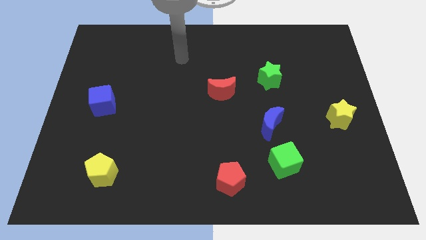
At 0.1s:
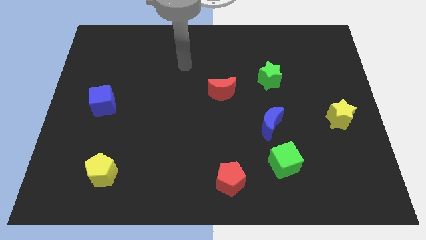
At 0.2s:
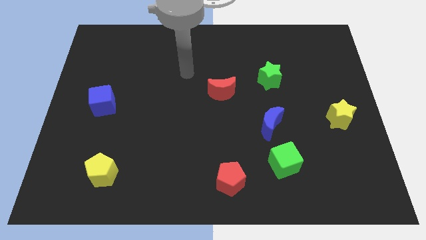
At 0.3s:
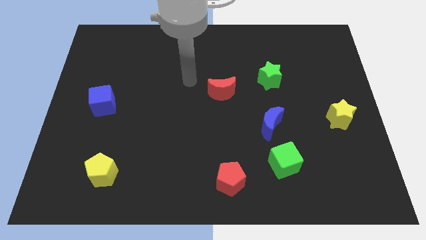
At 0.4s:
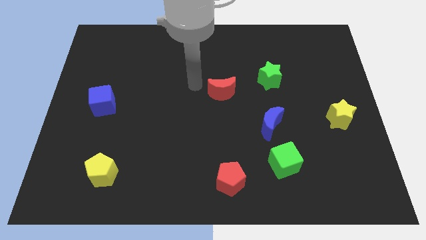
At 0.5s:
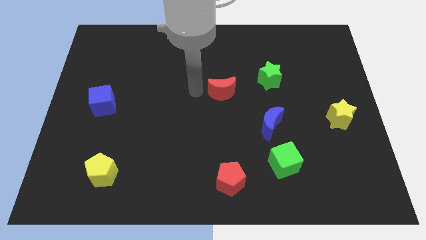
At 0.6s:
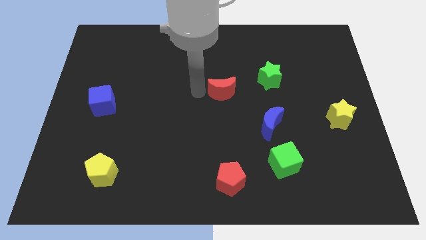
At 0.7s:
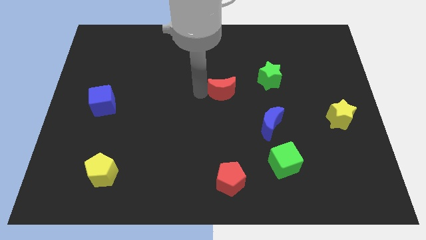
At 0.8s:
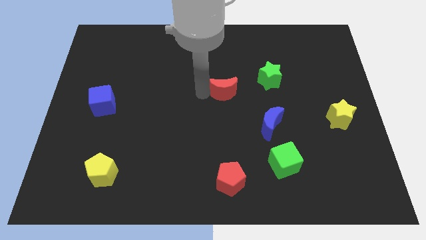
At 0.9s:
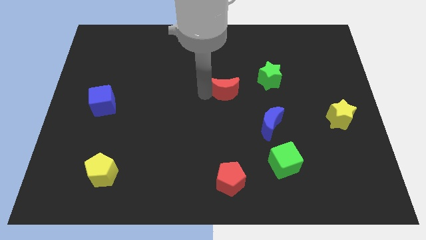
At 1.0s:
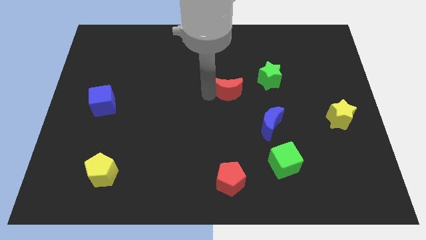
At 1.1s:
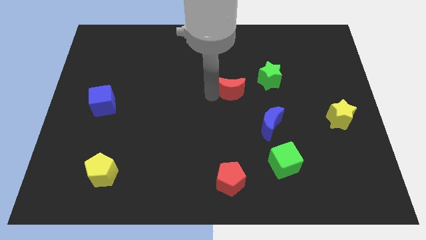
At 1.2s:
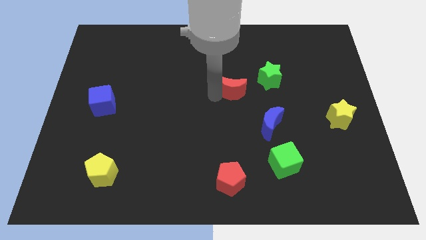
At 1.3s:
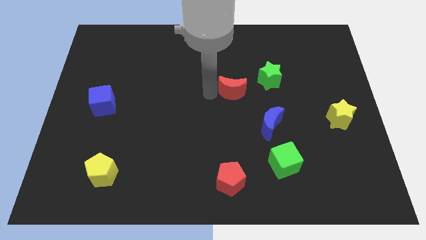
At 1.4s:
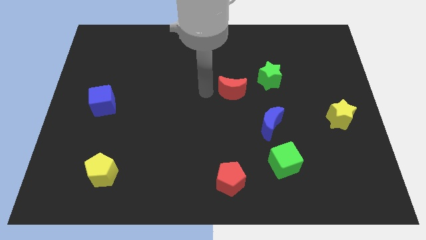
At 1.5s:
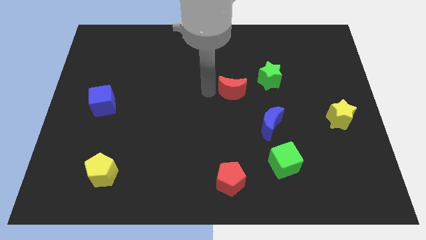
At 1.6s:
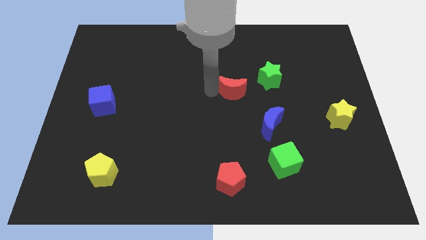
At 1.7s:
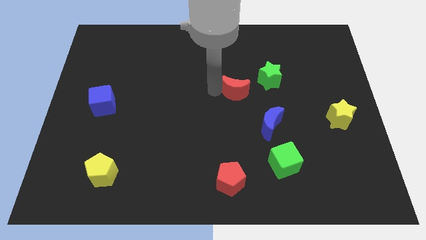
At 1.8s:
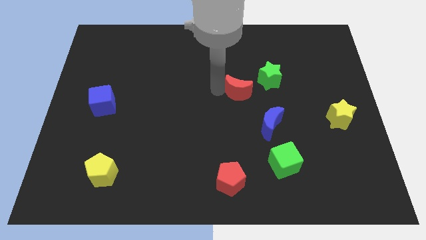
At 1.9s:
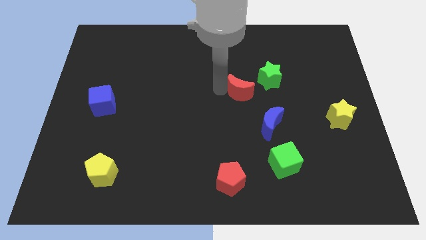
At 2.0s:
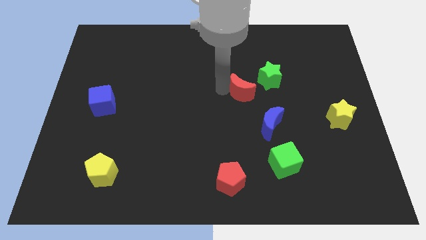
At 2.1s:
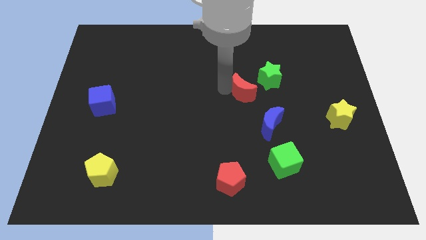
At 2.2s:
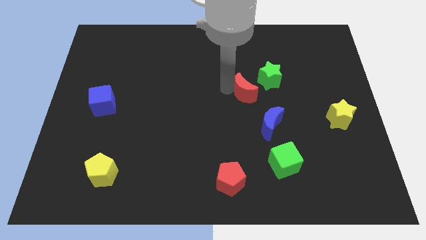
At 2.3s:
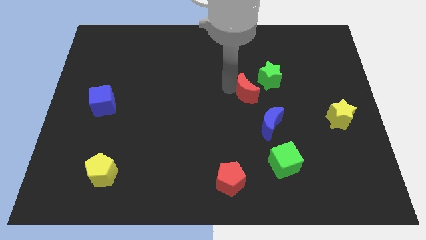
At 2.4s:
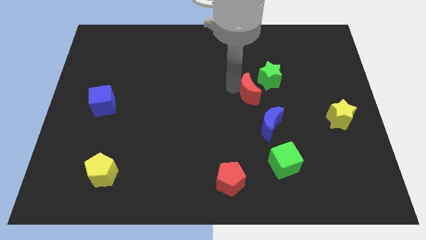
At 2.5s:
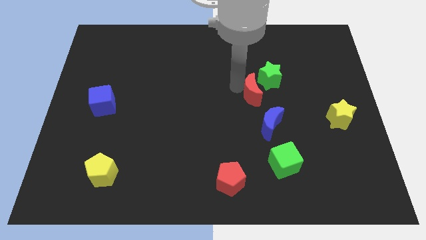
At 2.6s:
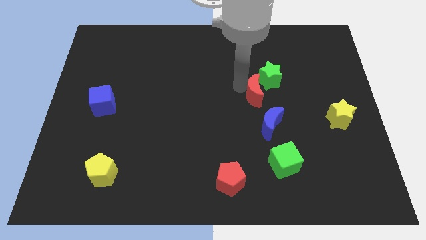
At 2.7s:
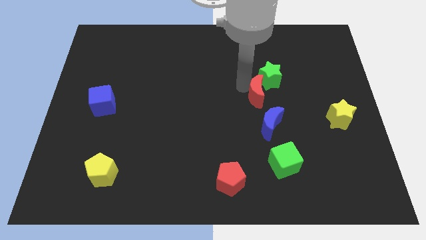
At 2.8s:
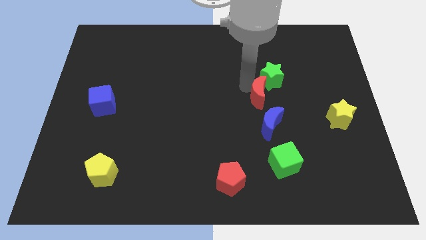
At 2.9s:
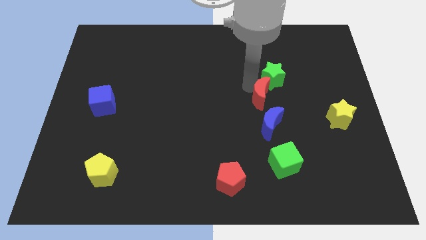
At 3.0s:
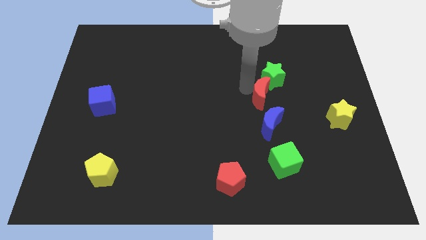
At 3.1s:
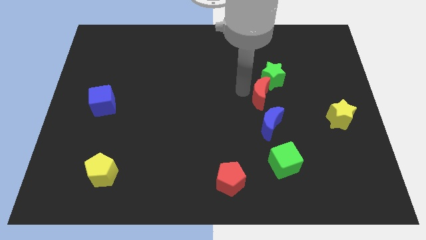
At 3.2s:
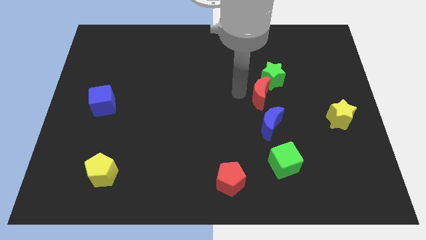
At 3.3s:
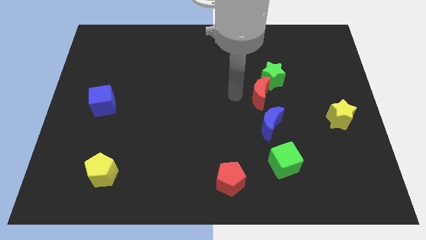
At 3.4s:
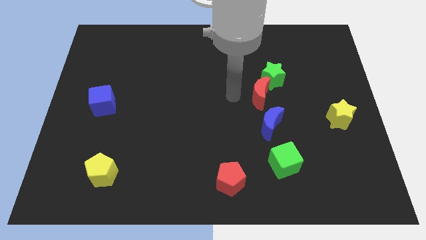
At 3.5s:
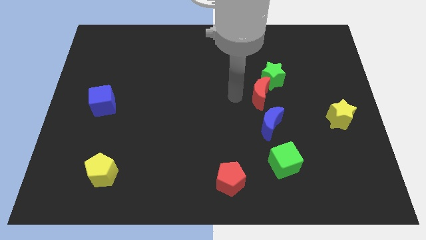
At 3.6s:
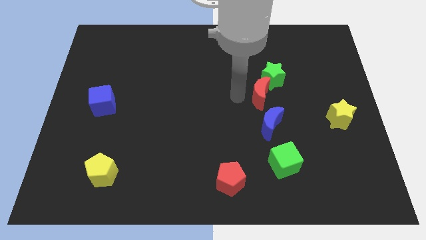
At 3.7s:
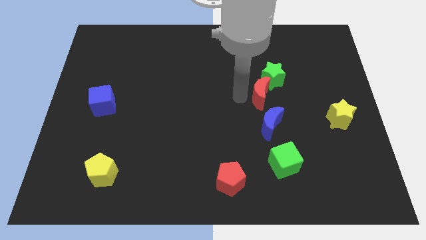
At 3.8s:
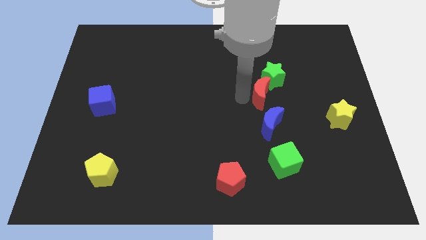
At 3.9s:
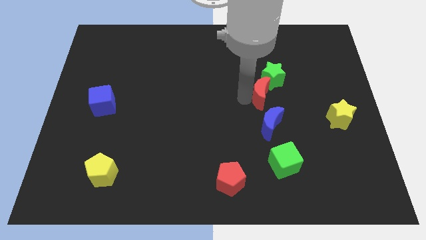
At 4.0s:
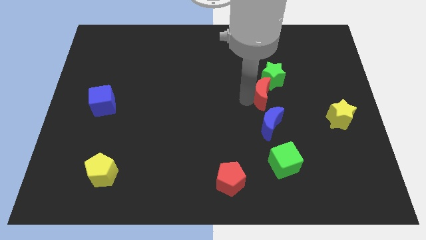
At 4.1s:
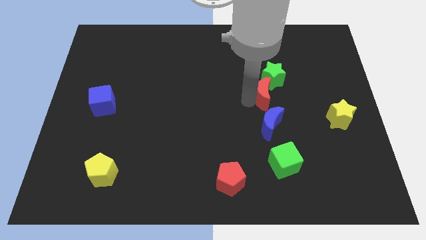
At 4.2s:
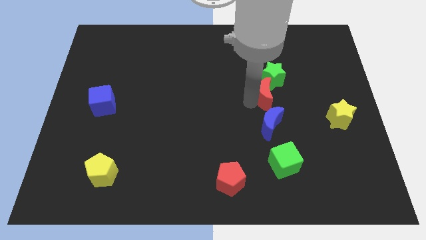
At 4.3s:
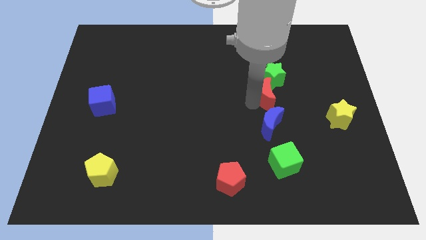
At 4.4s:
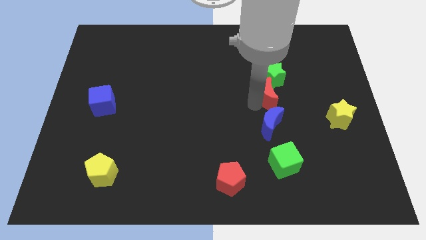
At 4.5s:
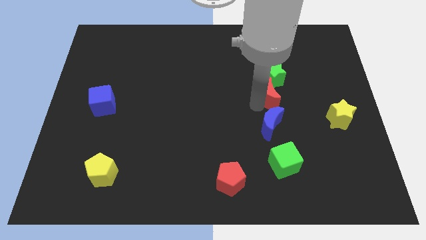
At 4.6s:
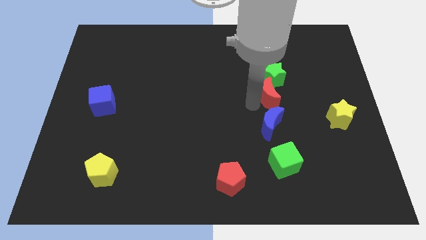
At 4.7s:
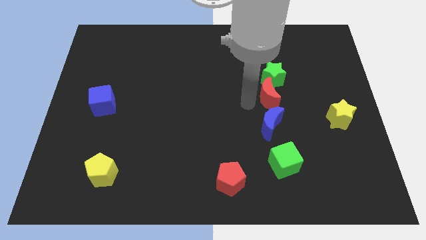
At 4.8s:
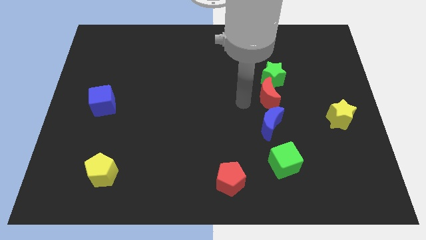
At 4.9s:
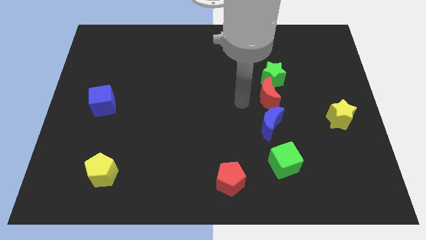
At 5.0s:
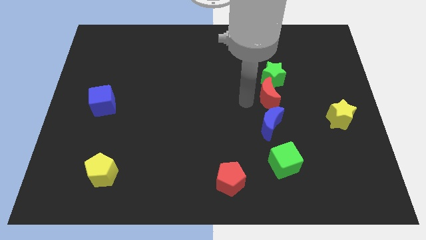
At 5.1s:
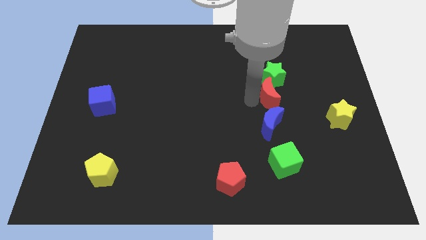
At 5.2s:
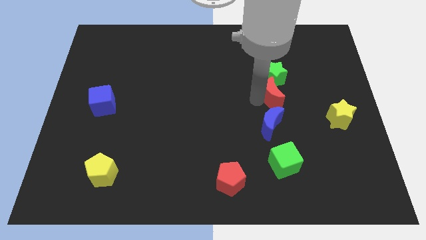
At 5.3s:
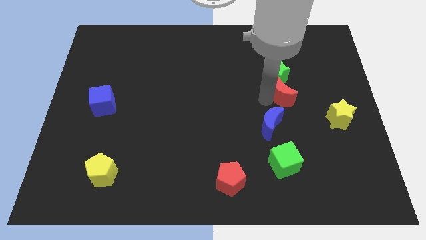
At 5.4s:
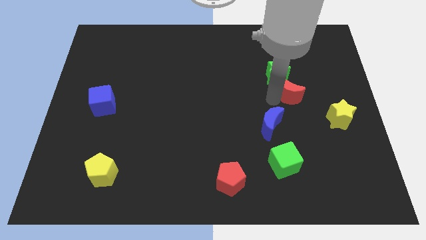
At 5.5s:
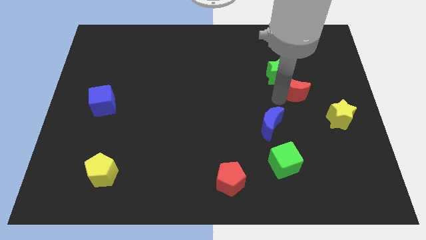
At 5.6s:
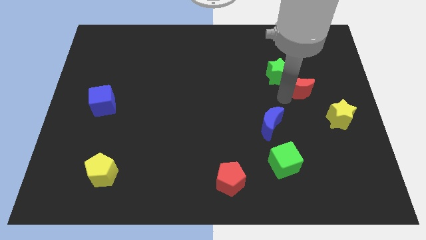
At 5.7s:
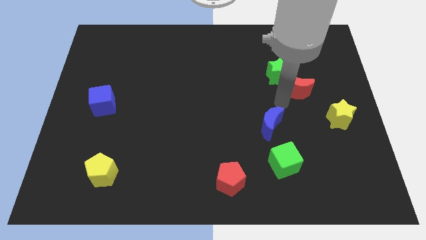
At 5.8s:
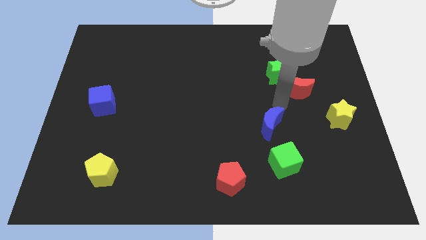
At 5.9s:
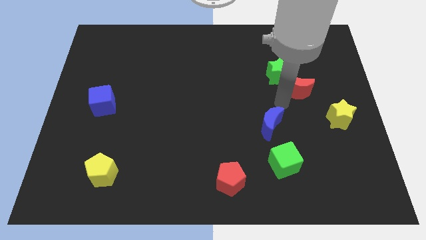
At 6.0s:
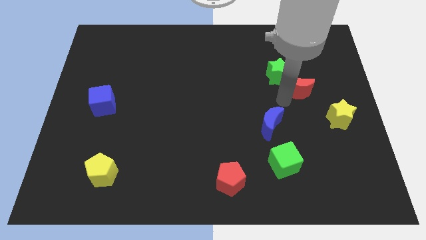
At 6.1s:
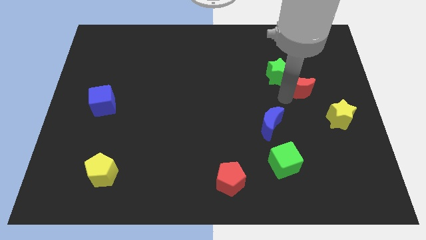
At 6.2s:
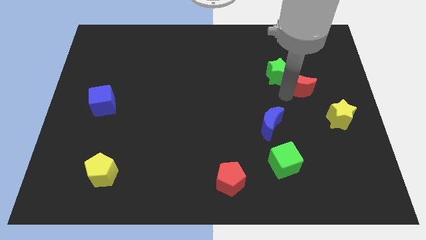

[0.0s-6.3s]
slide the red moon to the right of the green star

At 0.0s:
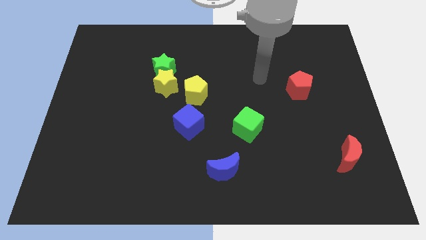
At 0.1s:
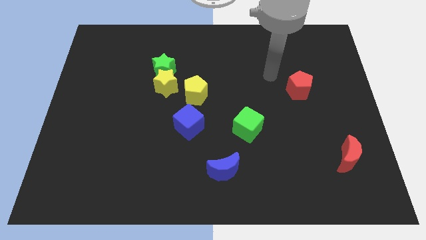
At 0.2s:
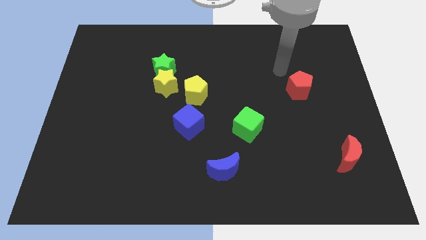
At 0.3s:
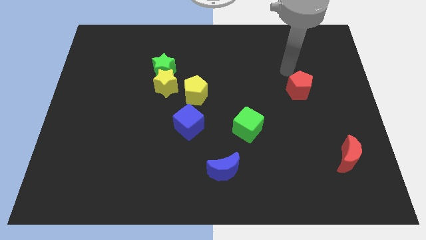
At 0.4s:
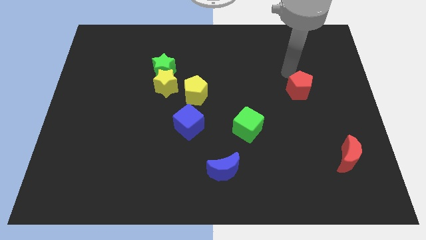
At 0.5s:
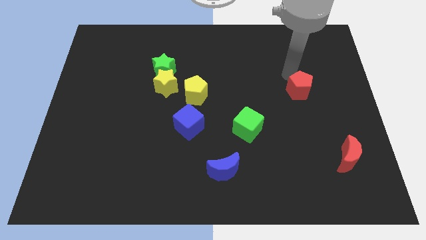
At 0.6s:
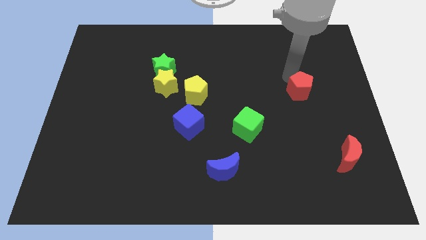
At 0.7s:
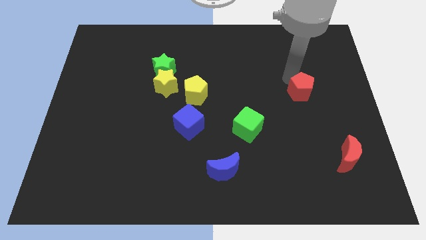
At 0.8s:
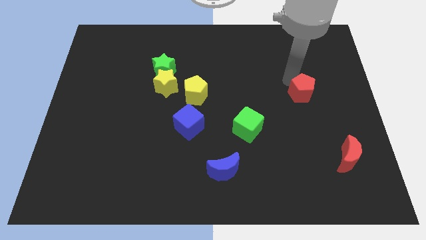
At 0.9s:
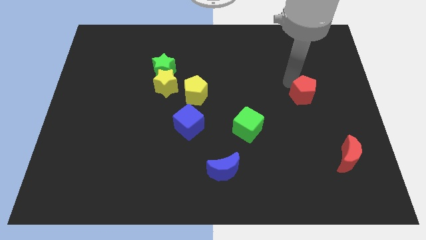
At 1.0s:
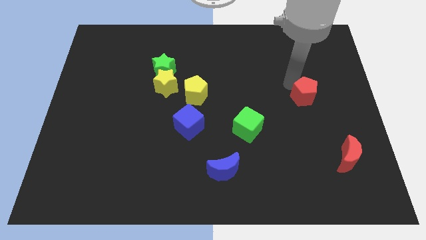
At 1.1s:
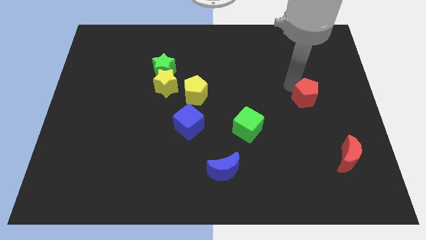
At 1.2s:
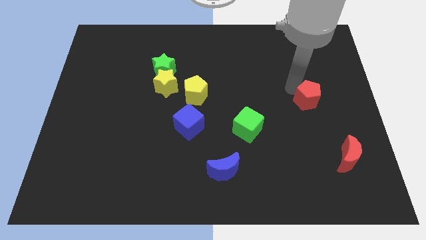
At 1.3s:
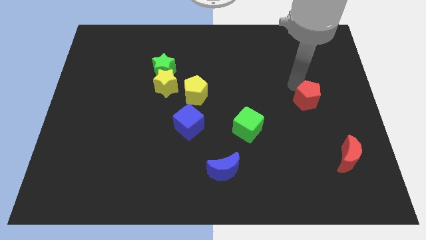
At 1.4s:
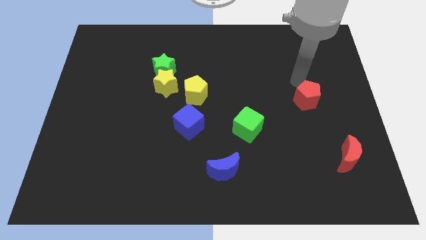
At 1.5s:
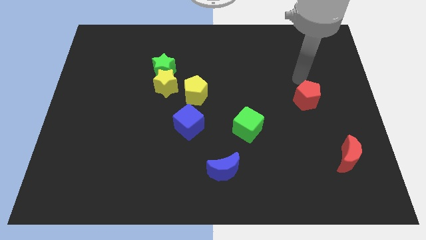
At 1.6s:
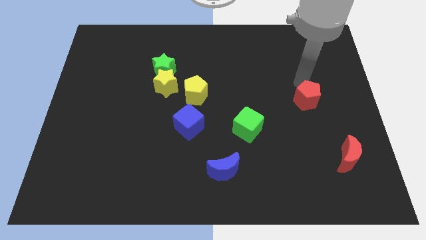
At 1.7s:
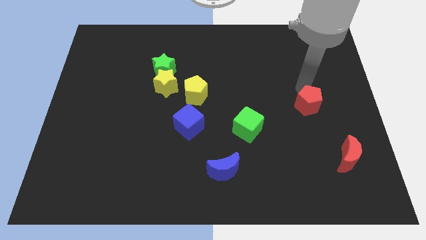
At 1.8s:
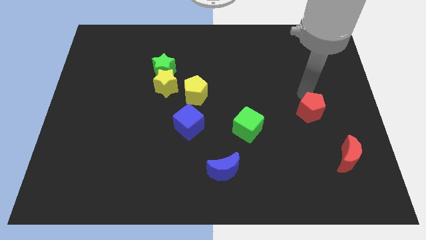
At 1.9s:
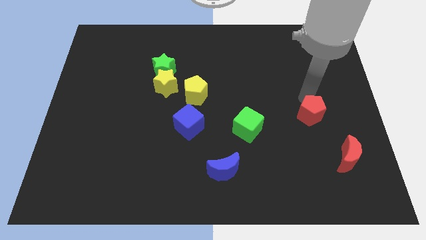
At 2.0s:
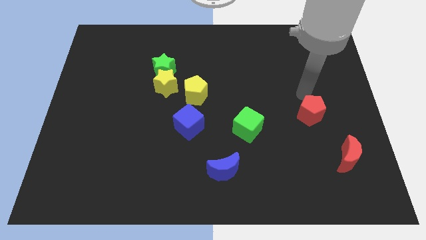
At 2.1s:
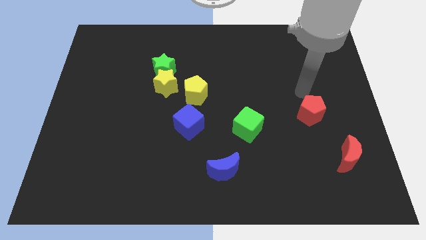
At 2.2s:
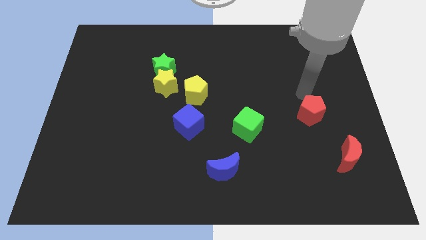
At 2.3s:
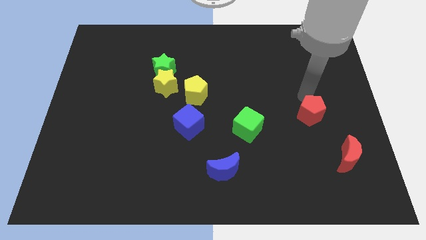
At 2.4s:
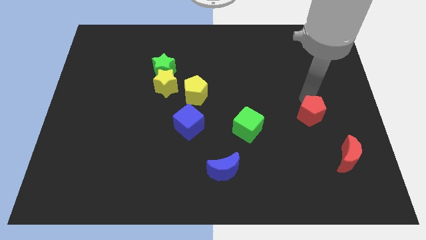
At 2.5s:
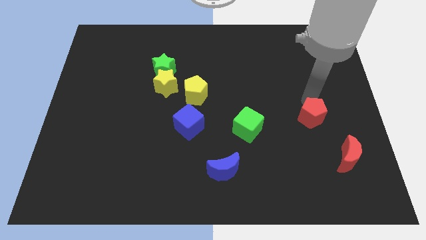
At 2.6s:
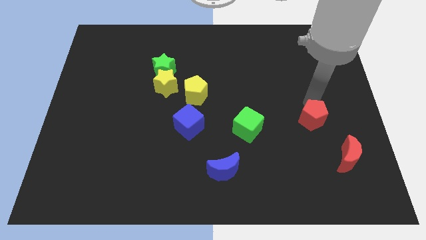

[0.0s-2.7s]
push the red pentagon to the top left side of the red moon
